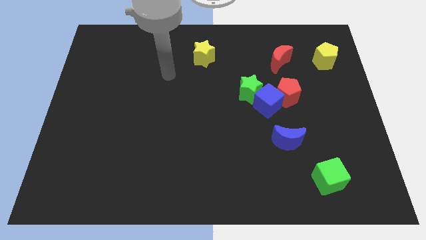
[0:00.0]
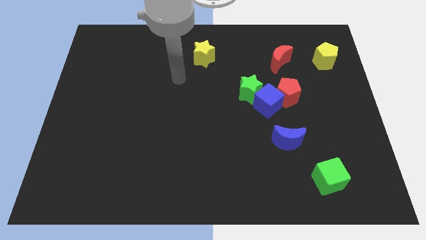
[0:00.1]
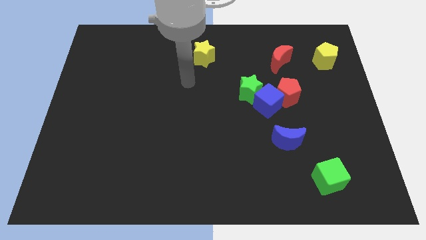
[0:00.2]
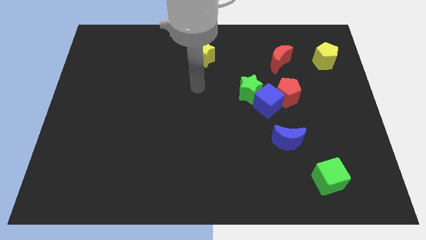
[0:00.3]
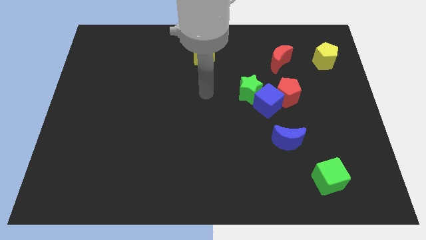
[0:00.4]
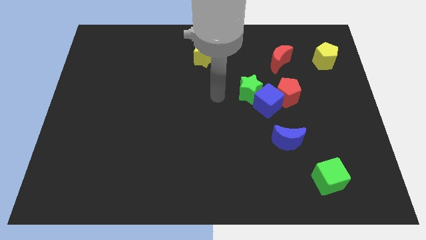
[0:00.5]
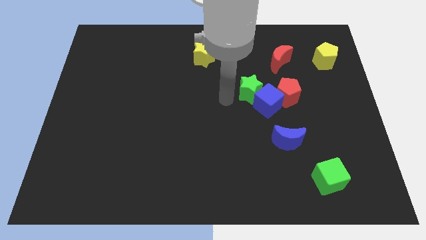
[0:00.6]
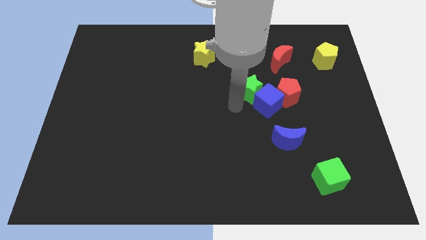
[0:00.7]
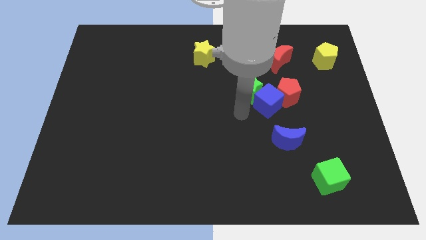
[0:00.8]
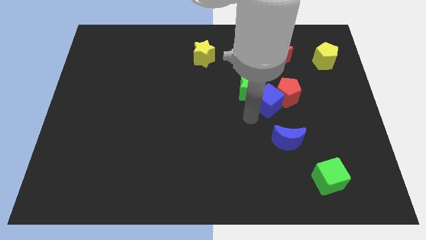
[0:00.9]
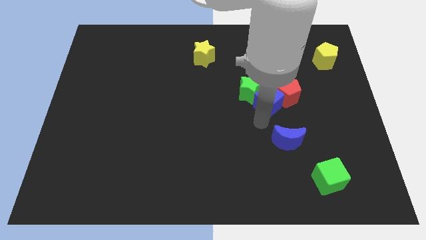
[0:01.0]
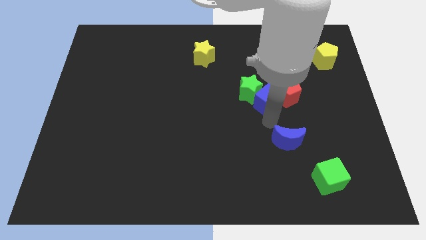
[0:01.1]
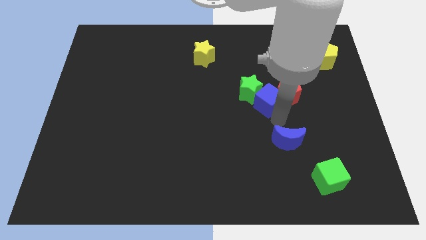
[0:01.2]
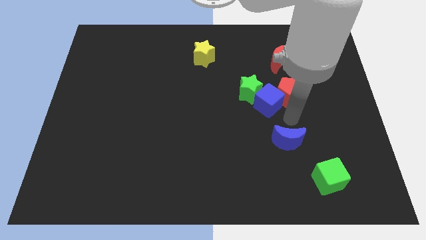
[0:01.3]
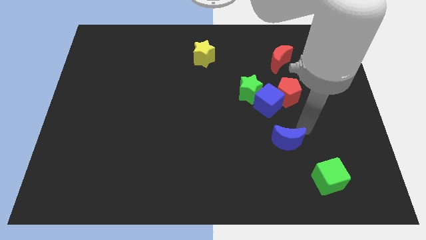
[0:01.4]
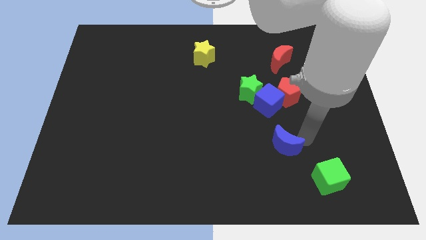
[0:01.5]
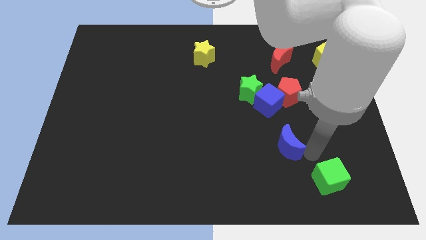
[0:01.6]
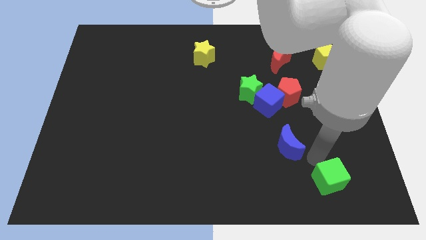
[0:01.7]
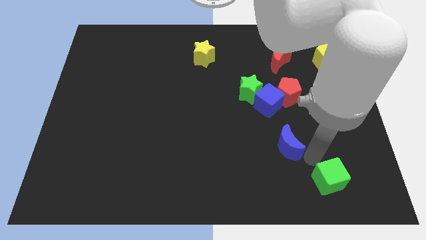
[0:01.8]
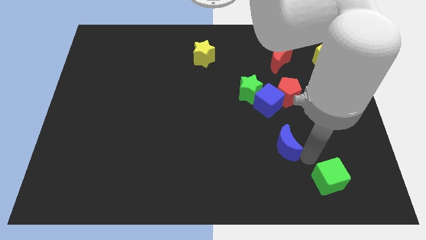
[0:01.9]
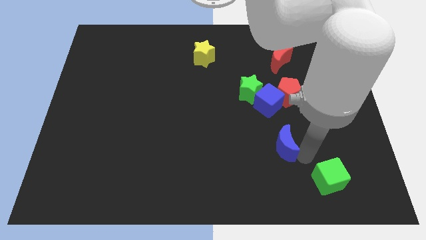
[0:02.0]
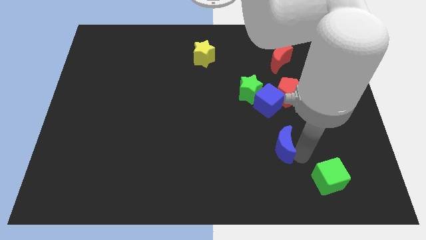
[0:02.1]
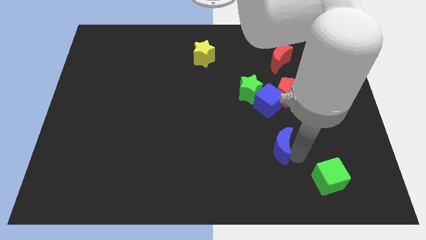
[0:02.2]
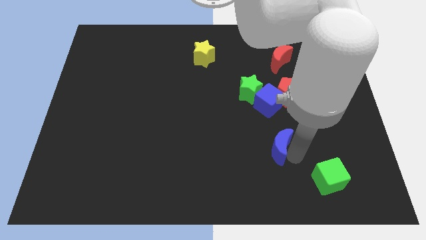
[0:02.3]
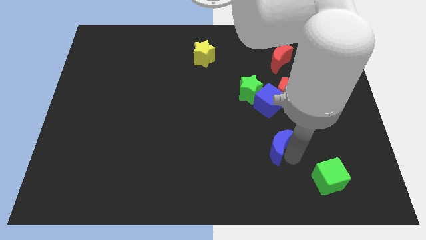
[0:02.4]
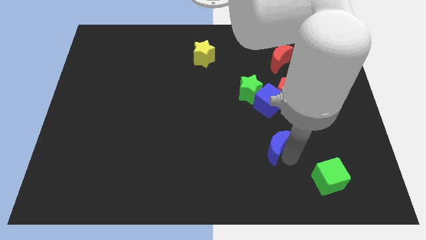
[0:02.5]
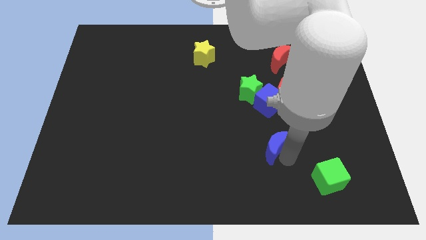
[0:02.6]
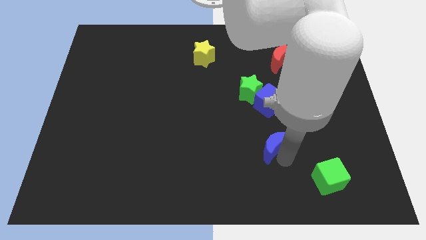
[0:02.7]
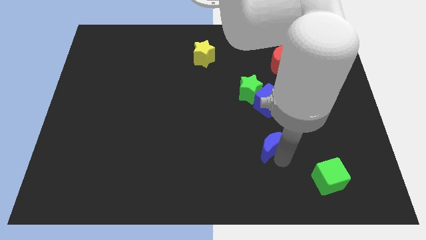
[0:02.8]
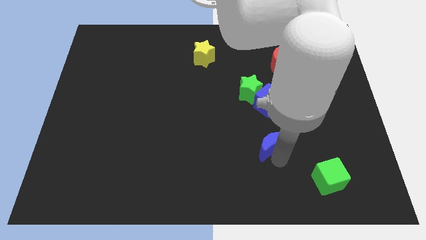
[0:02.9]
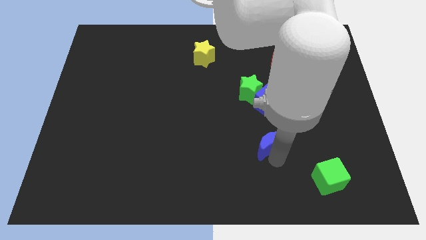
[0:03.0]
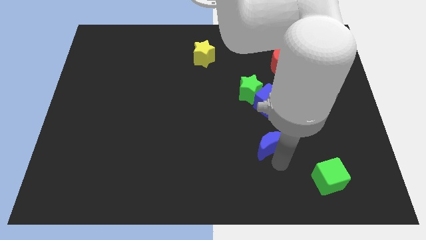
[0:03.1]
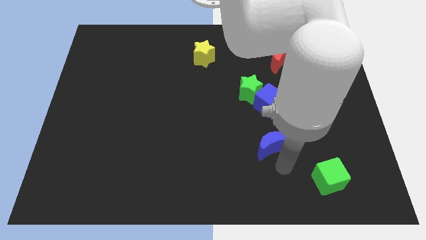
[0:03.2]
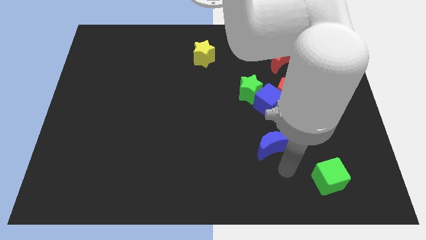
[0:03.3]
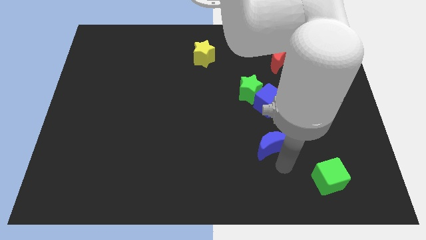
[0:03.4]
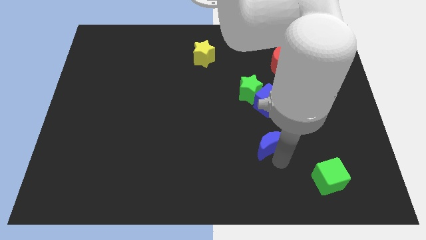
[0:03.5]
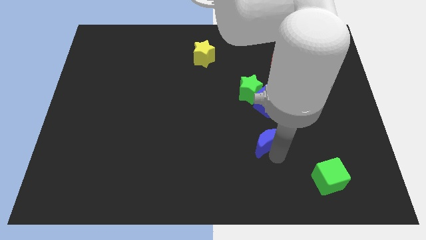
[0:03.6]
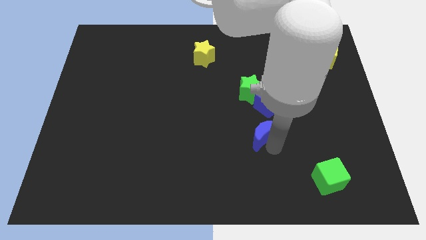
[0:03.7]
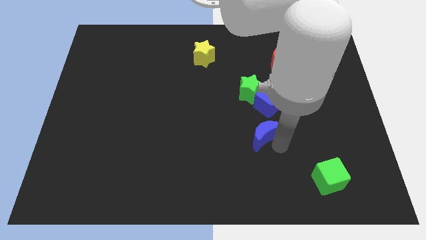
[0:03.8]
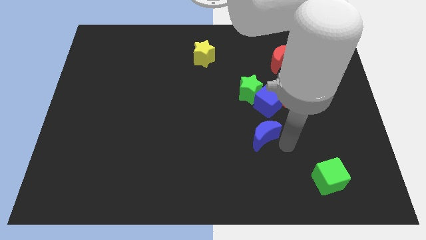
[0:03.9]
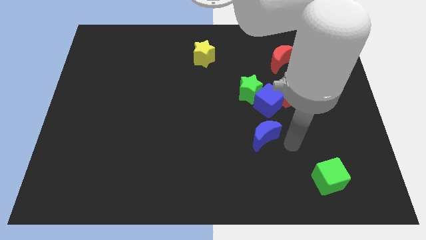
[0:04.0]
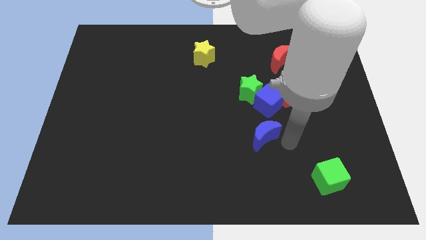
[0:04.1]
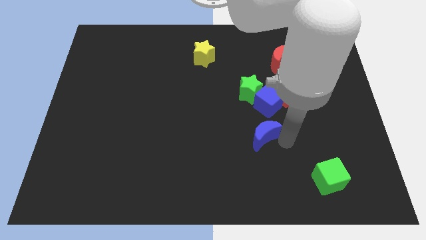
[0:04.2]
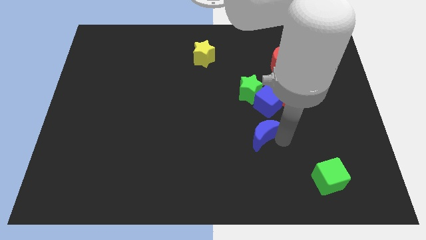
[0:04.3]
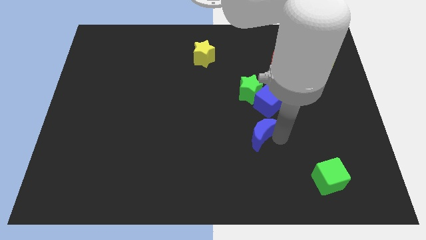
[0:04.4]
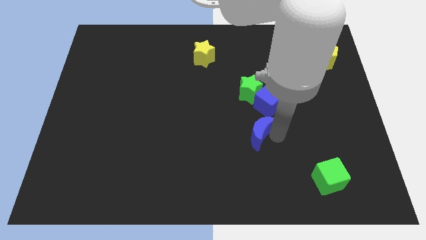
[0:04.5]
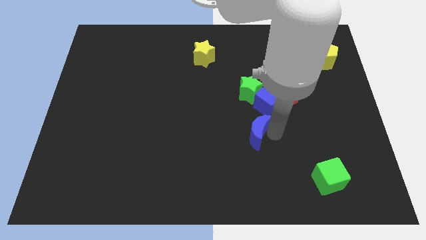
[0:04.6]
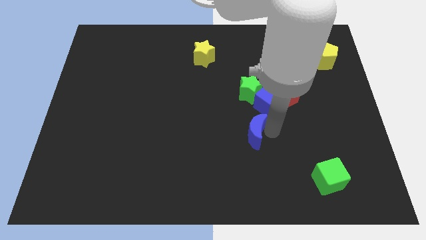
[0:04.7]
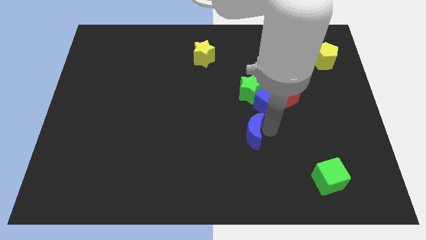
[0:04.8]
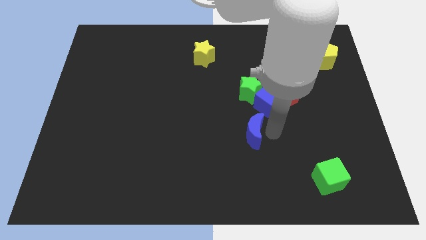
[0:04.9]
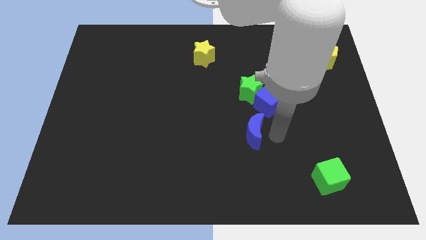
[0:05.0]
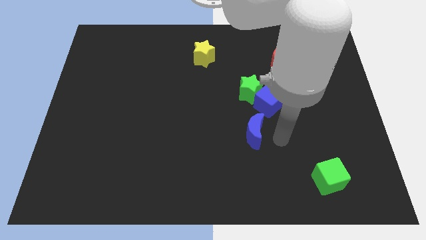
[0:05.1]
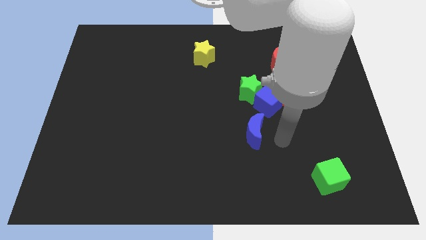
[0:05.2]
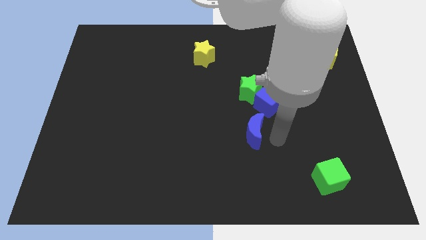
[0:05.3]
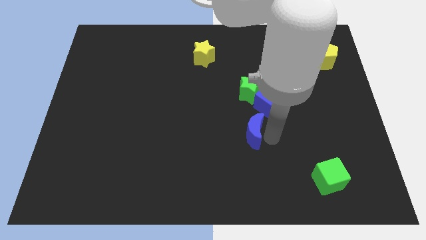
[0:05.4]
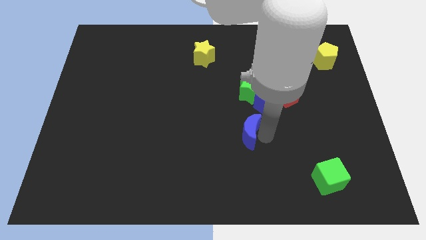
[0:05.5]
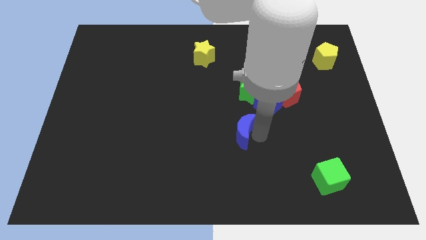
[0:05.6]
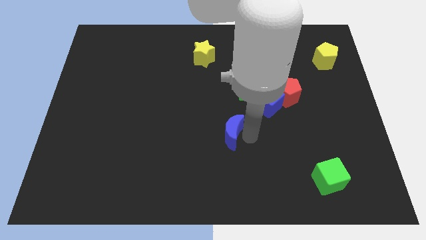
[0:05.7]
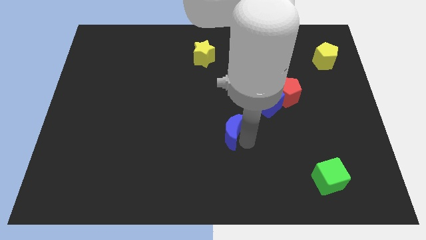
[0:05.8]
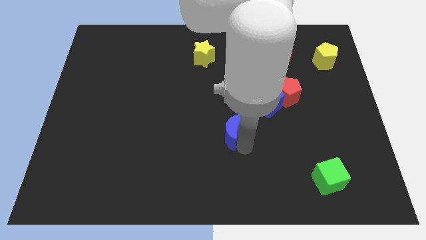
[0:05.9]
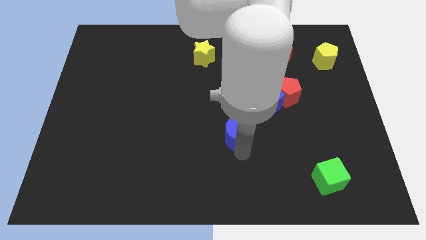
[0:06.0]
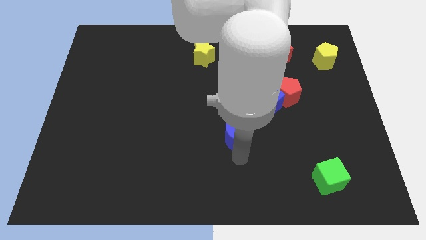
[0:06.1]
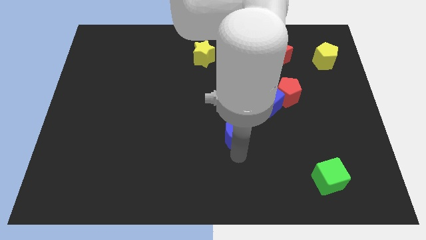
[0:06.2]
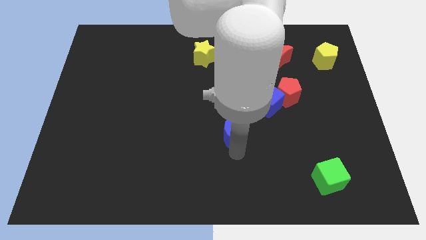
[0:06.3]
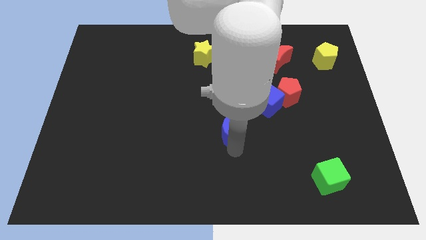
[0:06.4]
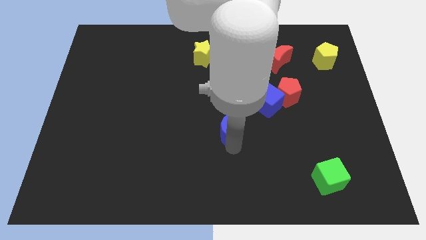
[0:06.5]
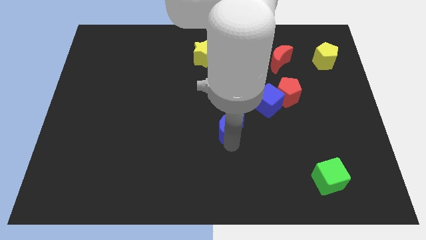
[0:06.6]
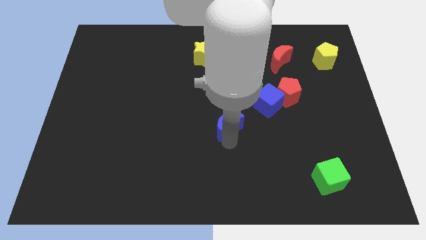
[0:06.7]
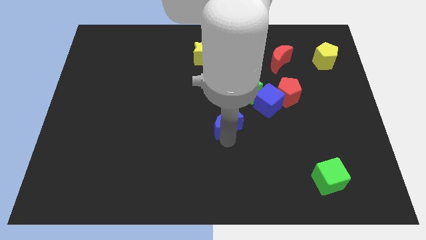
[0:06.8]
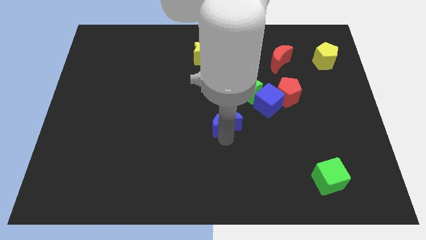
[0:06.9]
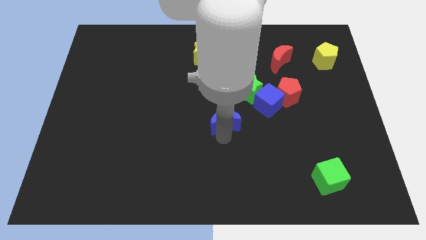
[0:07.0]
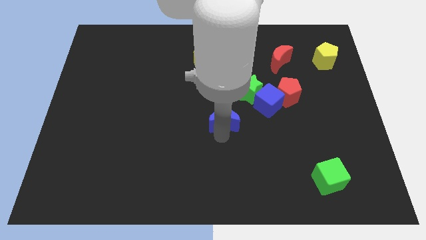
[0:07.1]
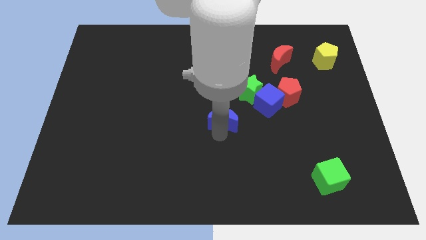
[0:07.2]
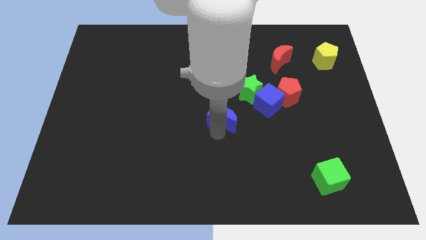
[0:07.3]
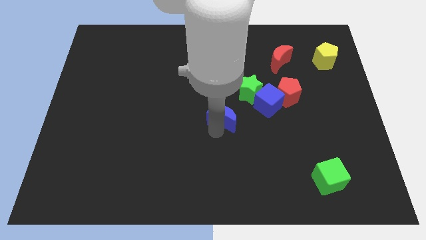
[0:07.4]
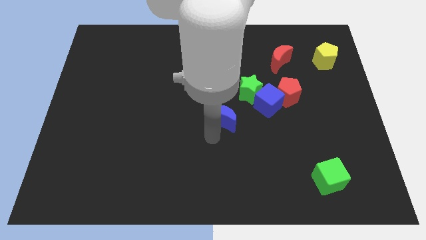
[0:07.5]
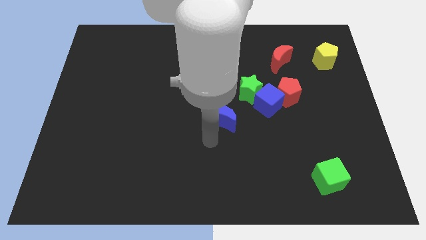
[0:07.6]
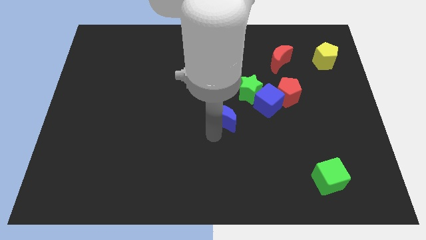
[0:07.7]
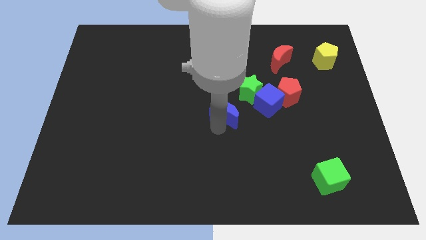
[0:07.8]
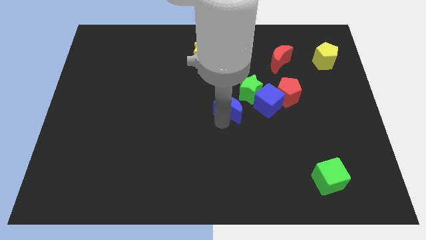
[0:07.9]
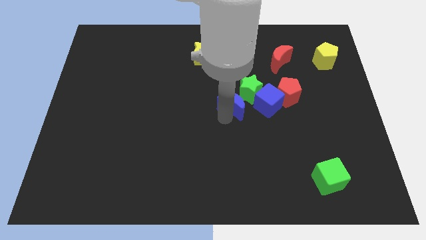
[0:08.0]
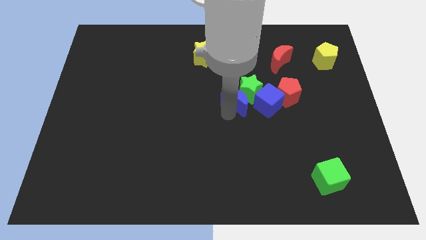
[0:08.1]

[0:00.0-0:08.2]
move the blue moon close to the green star
